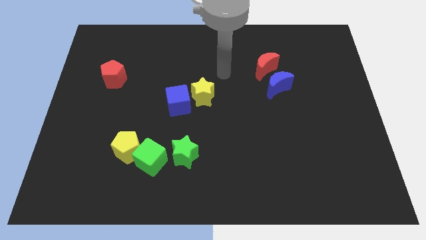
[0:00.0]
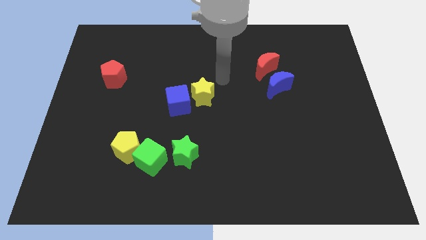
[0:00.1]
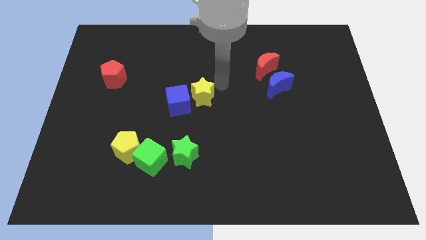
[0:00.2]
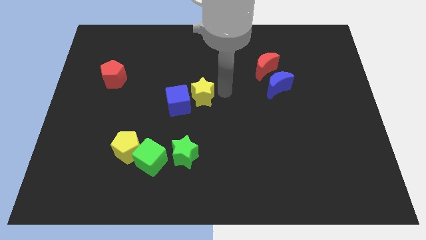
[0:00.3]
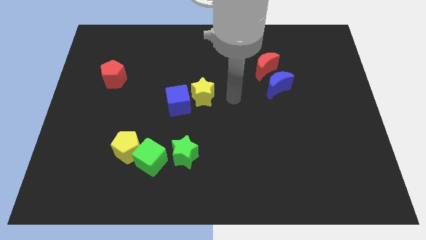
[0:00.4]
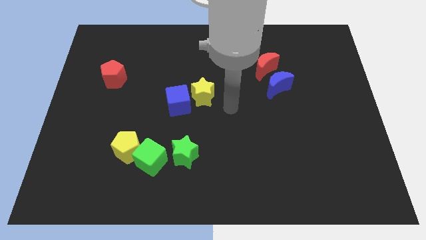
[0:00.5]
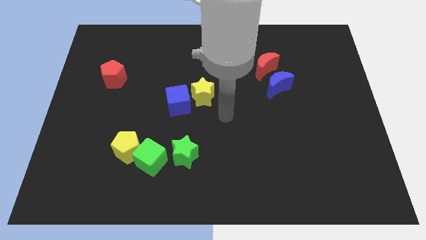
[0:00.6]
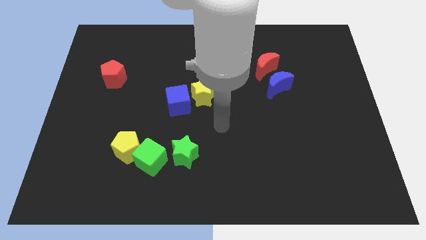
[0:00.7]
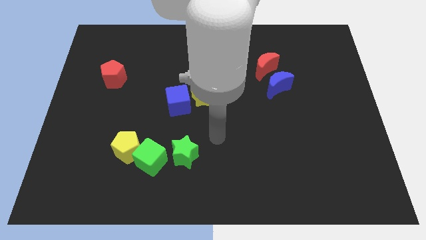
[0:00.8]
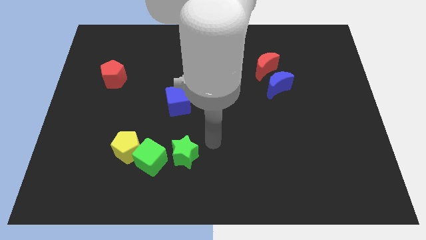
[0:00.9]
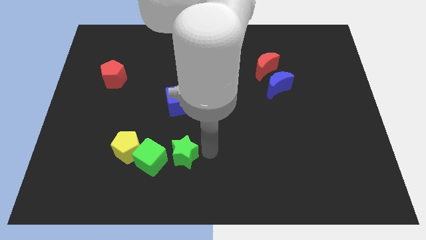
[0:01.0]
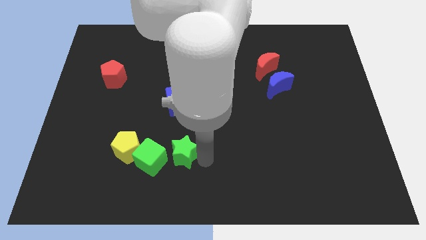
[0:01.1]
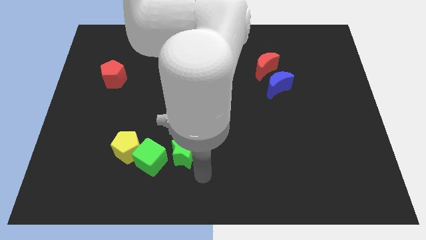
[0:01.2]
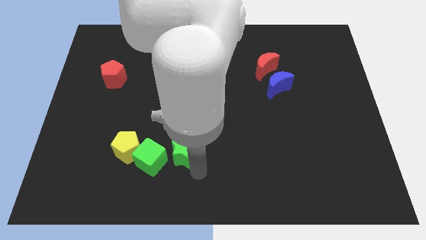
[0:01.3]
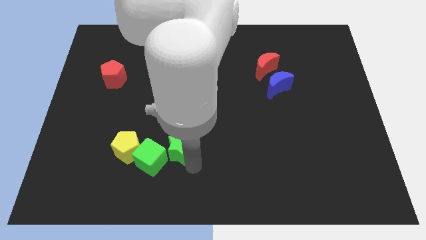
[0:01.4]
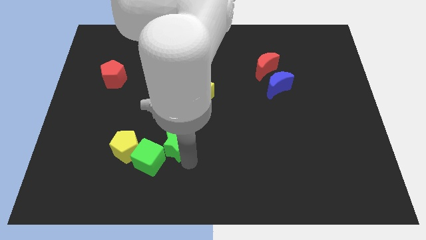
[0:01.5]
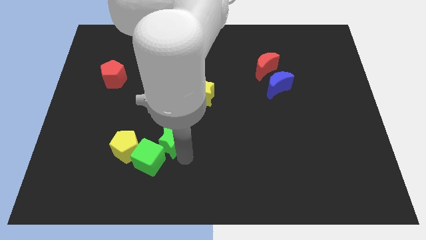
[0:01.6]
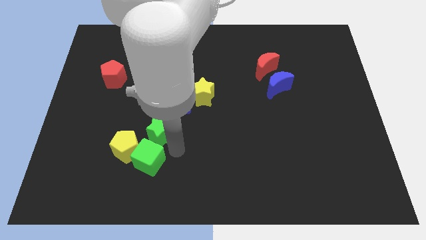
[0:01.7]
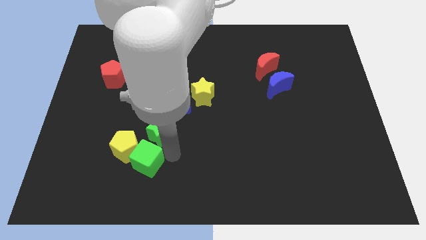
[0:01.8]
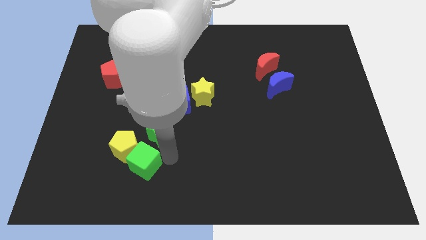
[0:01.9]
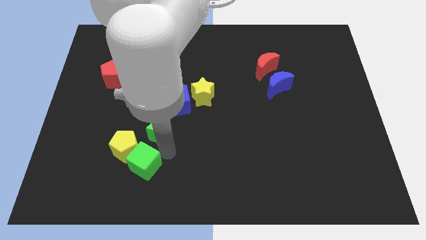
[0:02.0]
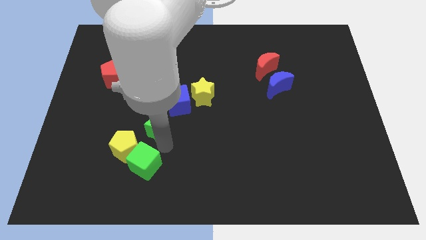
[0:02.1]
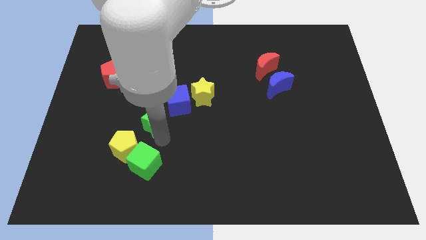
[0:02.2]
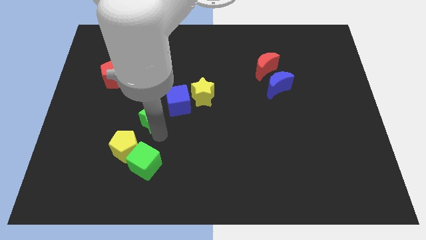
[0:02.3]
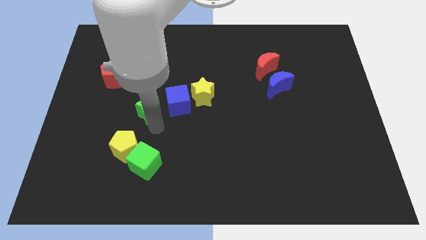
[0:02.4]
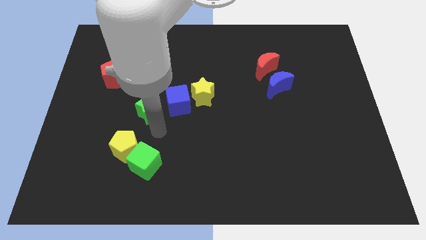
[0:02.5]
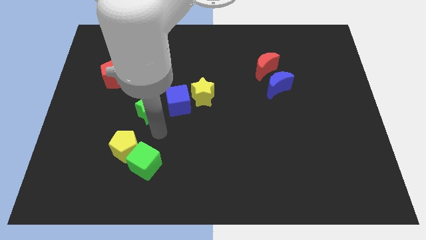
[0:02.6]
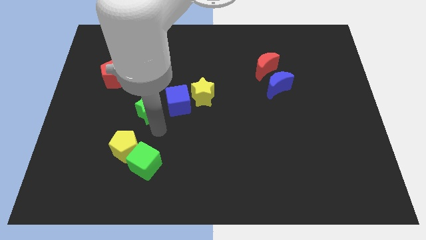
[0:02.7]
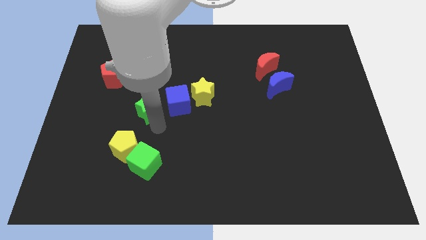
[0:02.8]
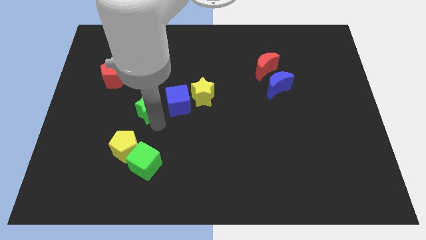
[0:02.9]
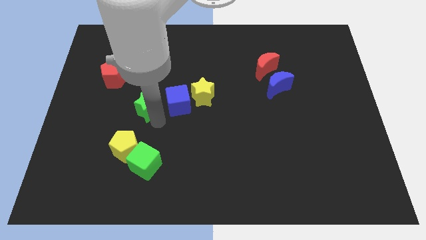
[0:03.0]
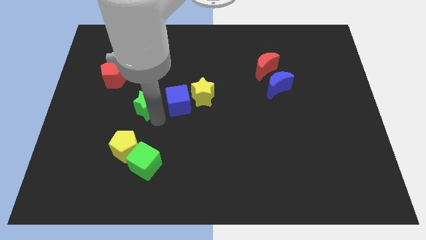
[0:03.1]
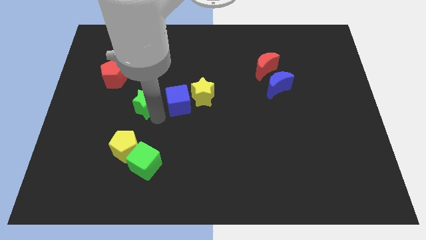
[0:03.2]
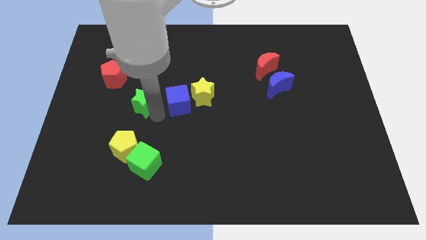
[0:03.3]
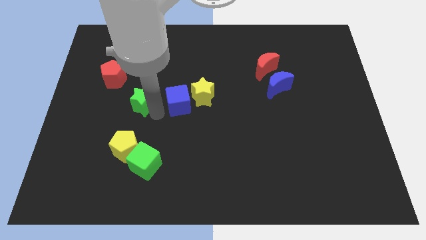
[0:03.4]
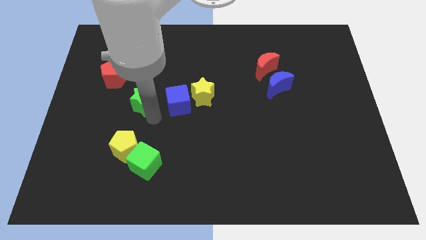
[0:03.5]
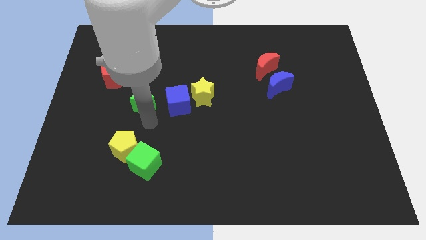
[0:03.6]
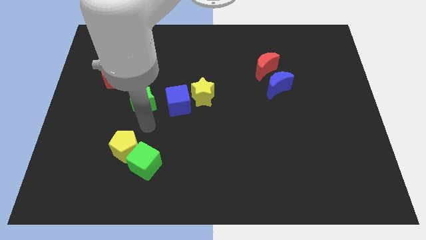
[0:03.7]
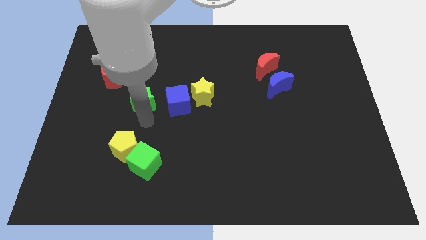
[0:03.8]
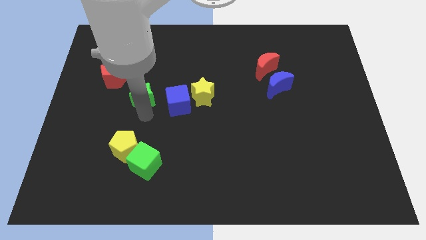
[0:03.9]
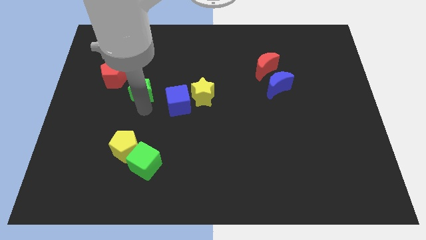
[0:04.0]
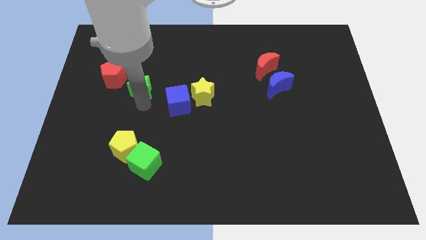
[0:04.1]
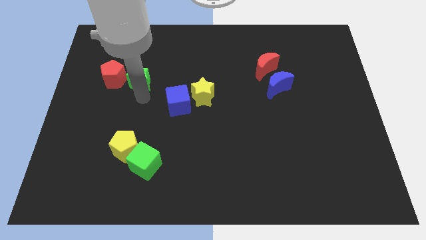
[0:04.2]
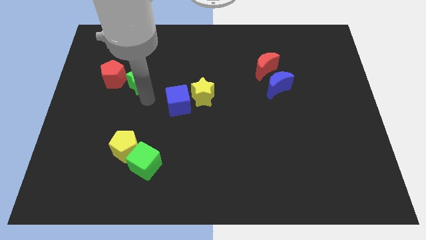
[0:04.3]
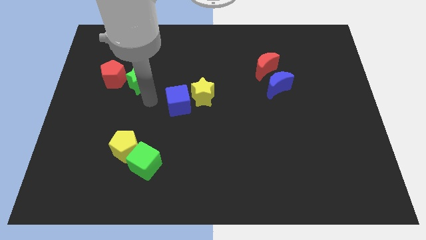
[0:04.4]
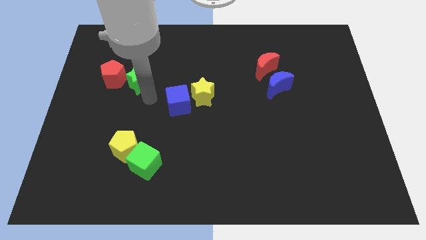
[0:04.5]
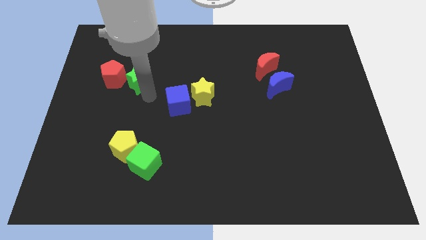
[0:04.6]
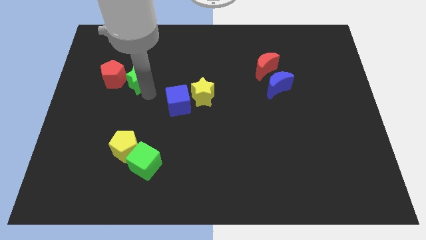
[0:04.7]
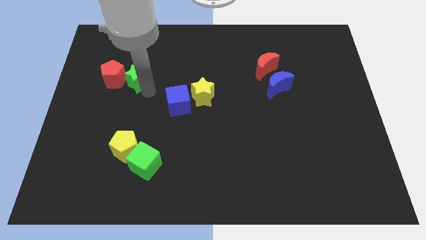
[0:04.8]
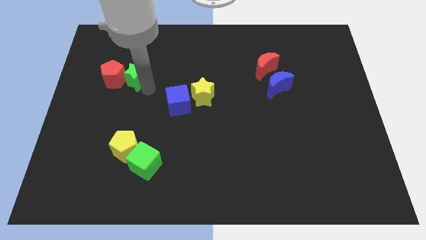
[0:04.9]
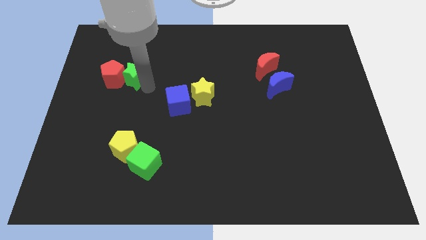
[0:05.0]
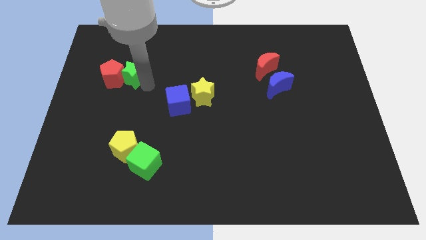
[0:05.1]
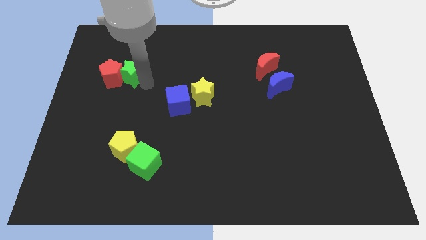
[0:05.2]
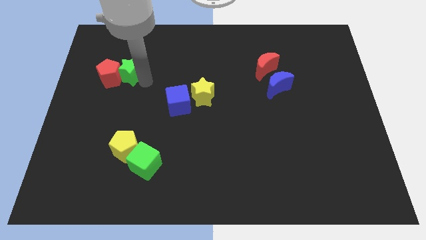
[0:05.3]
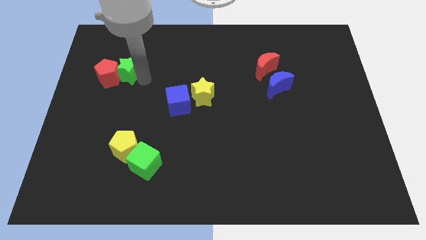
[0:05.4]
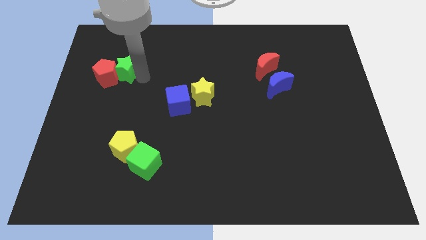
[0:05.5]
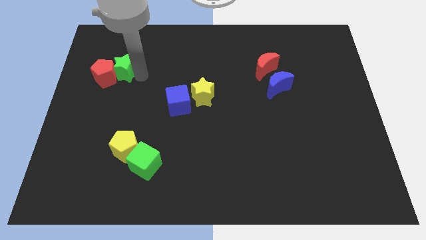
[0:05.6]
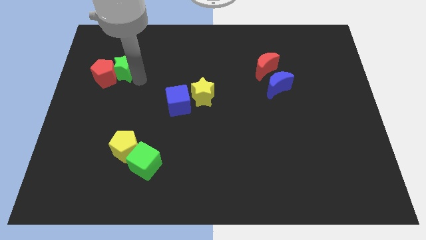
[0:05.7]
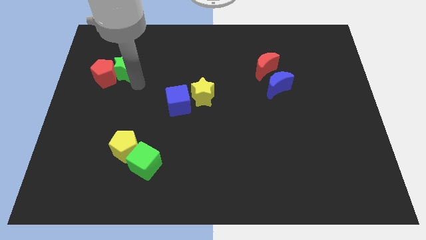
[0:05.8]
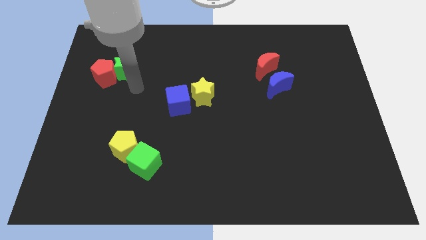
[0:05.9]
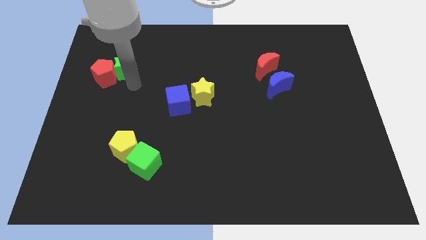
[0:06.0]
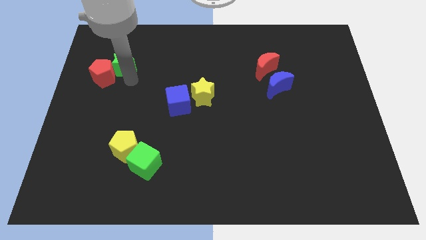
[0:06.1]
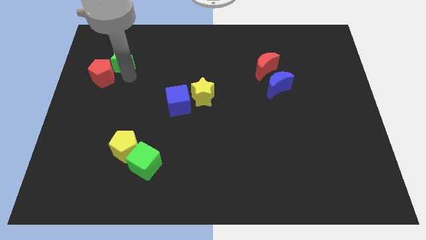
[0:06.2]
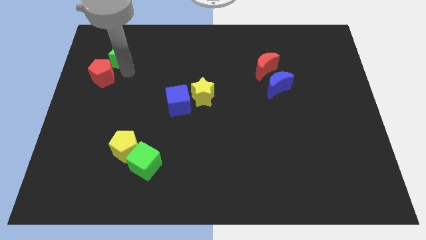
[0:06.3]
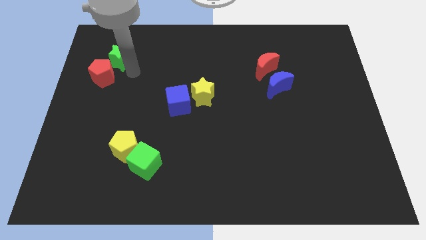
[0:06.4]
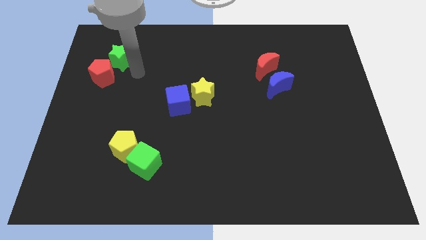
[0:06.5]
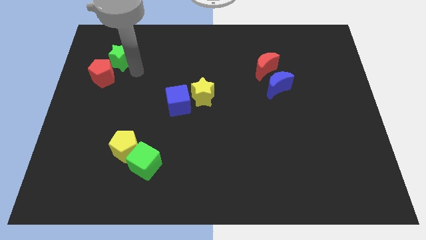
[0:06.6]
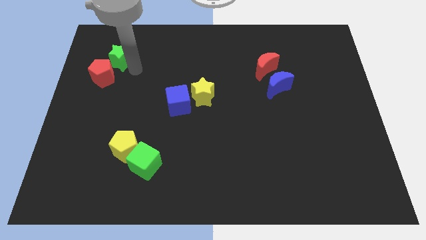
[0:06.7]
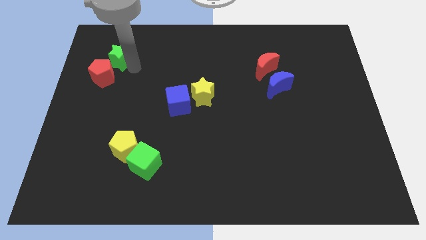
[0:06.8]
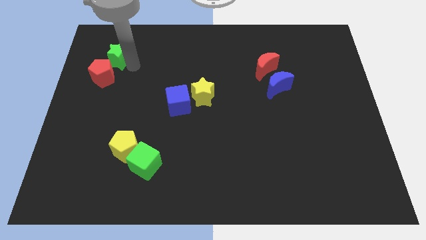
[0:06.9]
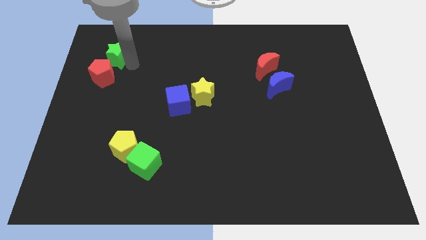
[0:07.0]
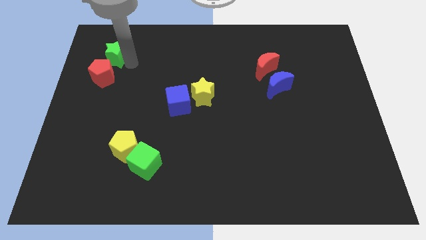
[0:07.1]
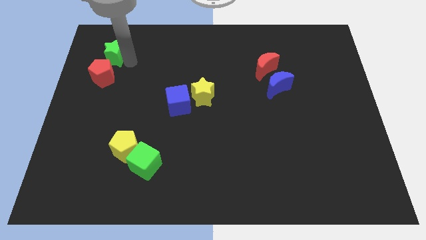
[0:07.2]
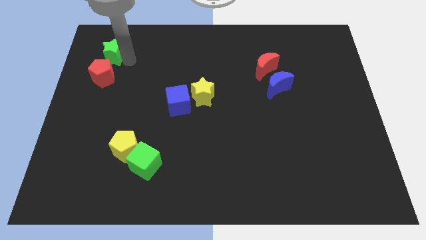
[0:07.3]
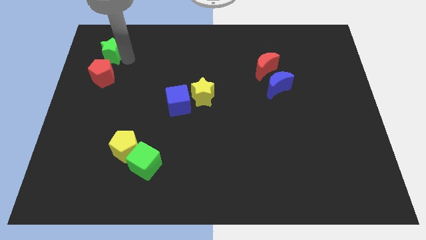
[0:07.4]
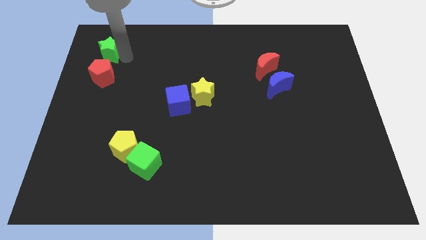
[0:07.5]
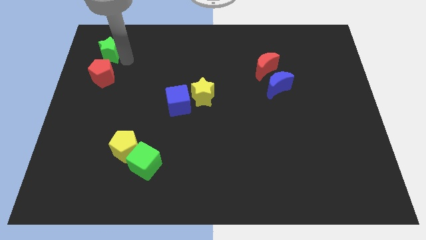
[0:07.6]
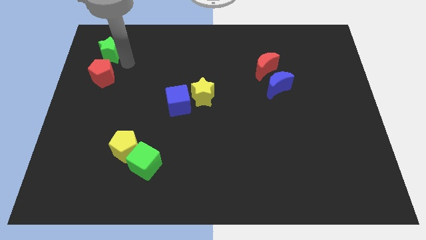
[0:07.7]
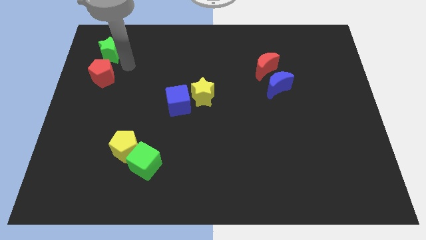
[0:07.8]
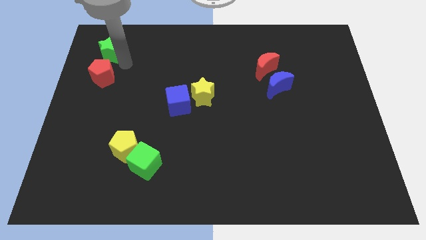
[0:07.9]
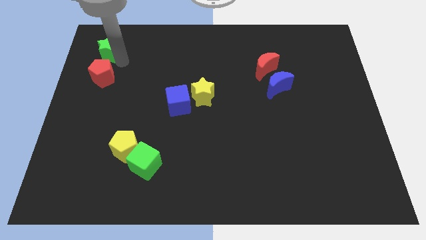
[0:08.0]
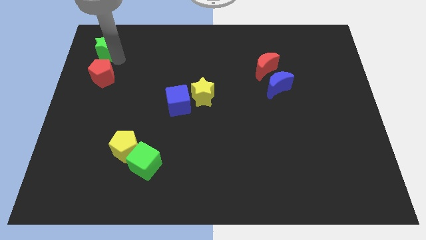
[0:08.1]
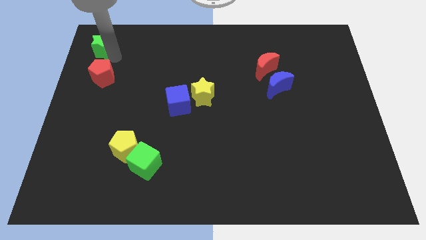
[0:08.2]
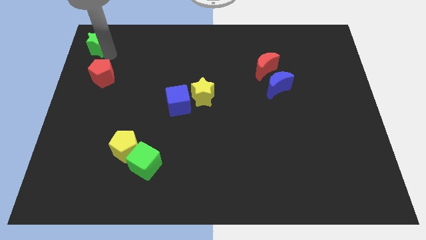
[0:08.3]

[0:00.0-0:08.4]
push the green star to the upper left corner
